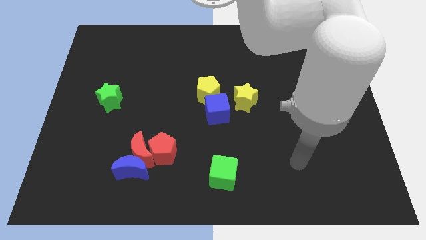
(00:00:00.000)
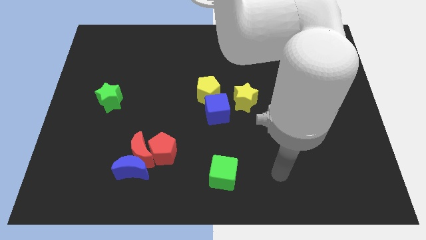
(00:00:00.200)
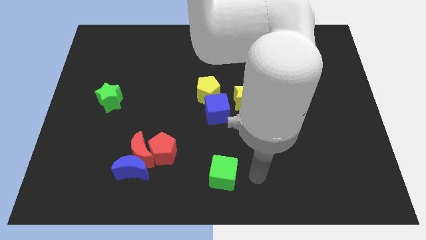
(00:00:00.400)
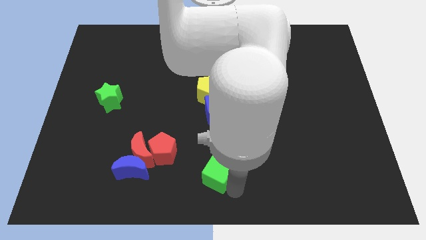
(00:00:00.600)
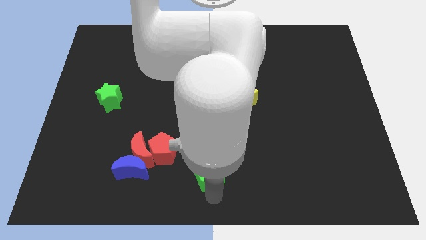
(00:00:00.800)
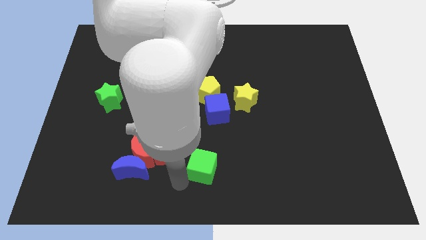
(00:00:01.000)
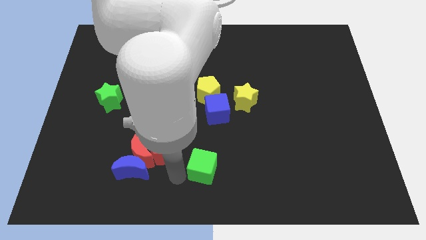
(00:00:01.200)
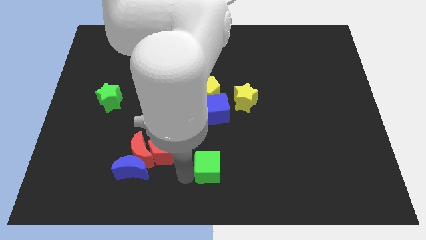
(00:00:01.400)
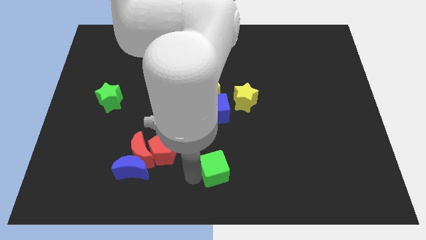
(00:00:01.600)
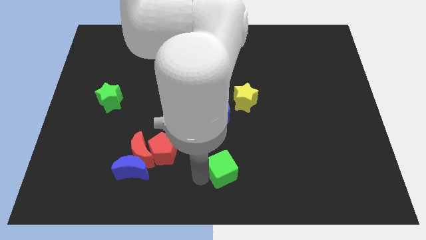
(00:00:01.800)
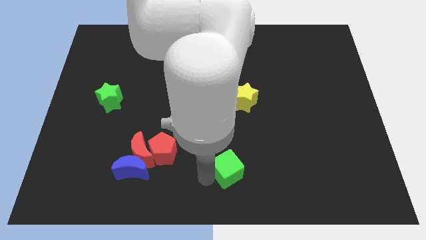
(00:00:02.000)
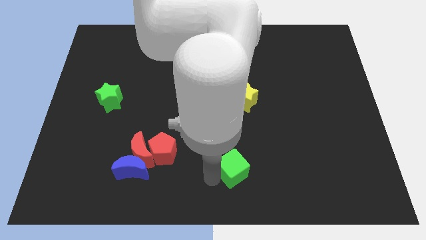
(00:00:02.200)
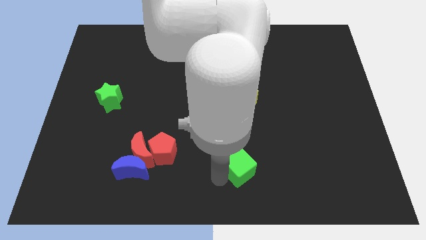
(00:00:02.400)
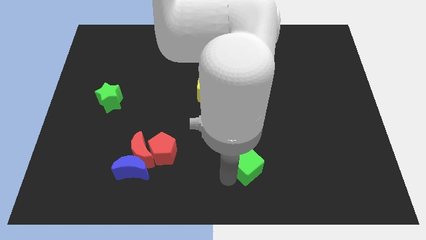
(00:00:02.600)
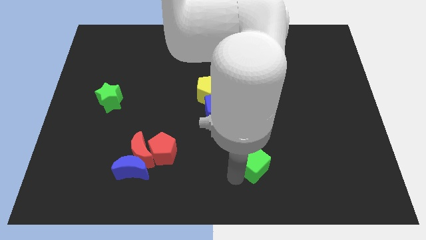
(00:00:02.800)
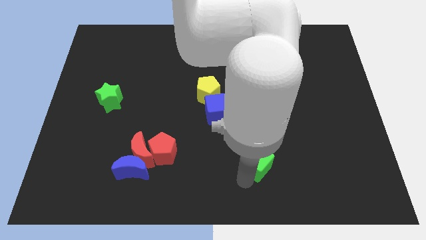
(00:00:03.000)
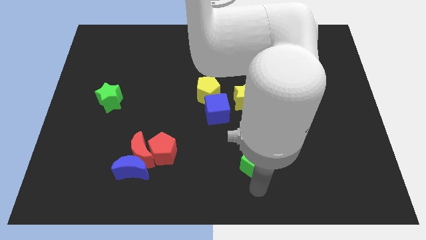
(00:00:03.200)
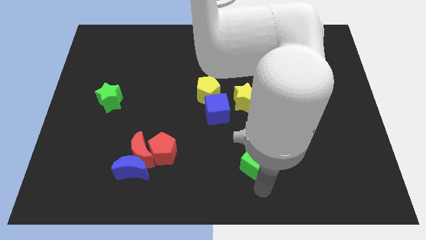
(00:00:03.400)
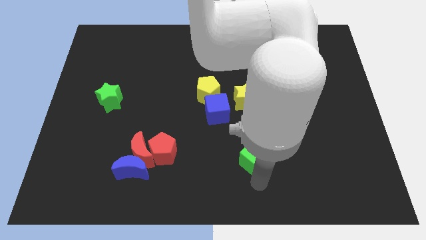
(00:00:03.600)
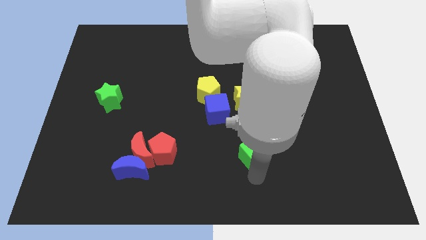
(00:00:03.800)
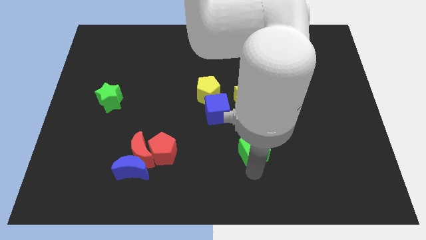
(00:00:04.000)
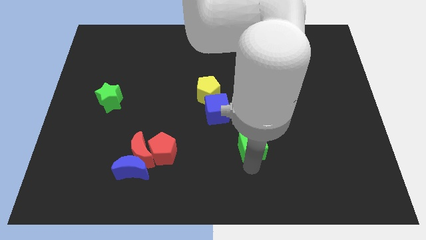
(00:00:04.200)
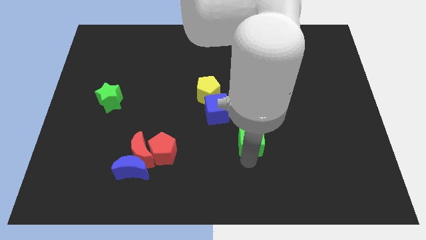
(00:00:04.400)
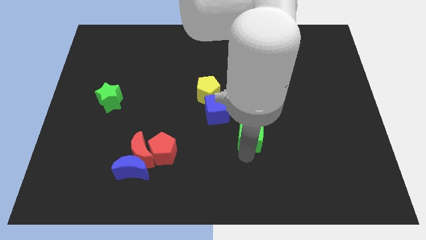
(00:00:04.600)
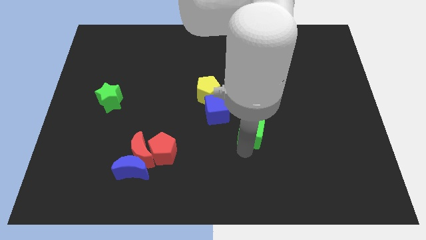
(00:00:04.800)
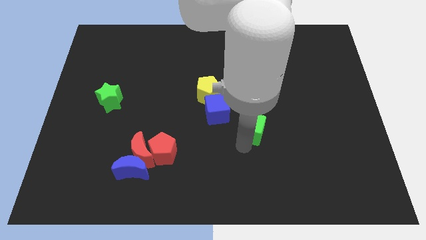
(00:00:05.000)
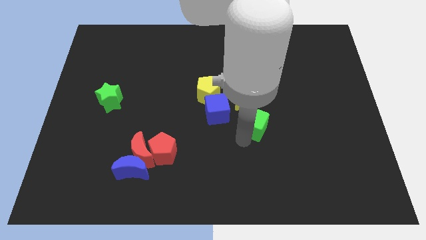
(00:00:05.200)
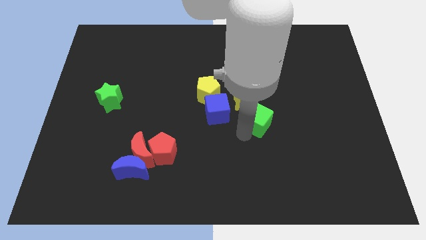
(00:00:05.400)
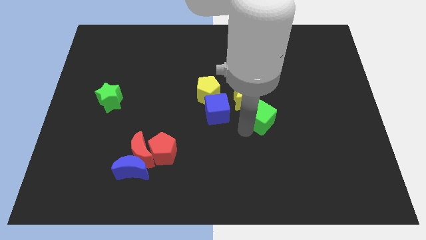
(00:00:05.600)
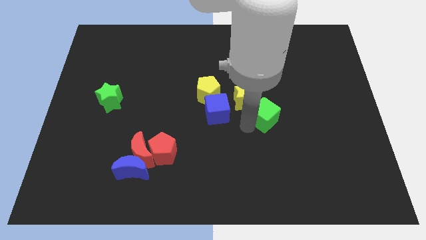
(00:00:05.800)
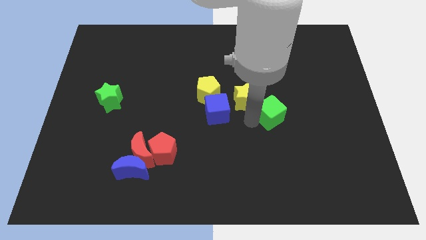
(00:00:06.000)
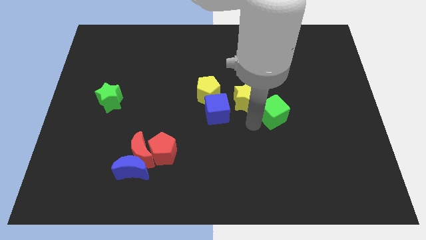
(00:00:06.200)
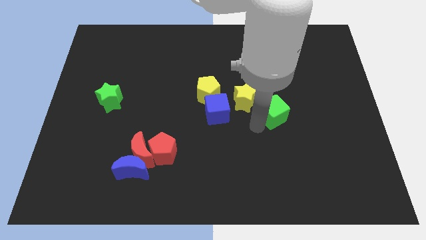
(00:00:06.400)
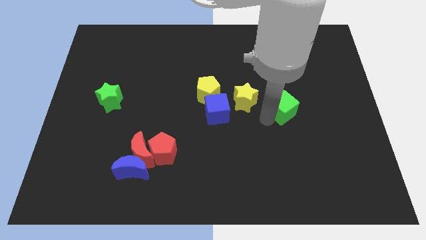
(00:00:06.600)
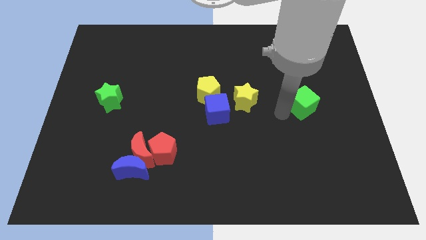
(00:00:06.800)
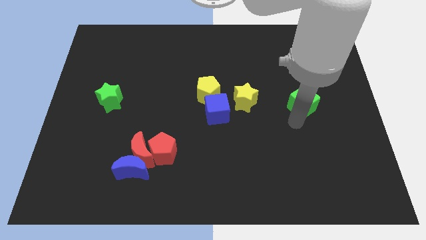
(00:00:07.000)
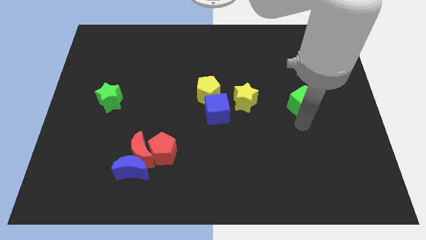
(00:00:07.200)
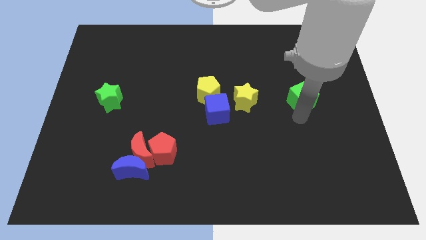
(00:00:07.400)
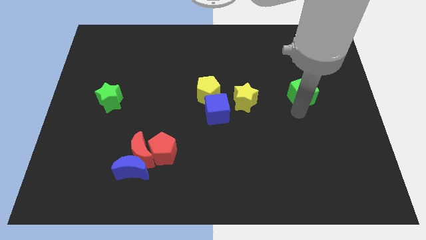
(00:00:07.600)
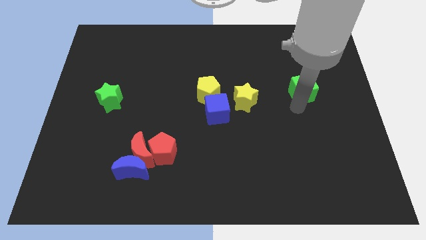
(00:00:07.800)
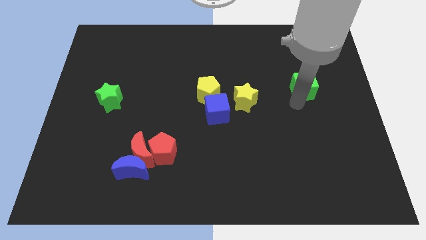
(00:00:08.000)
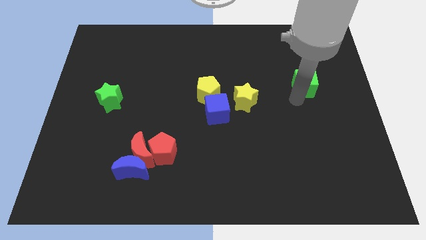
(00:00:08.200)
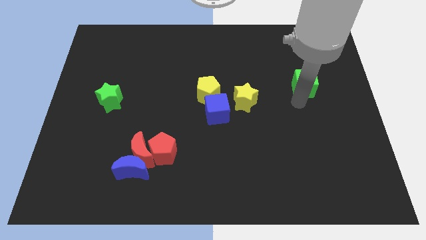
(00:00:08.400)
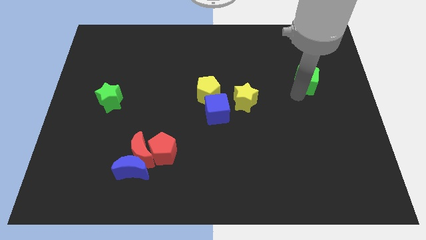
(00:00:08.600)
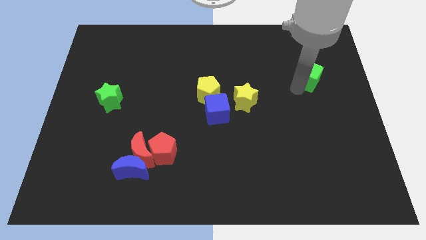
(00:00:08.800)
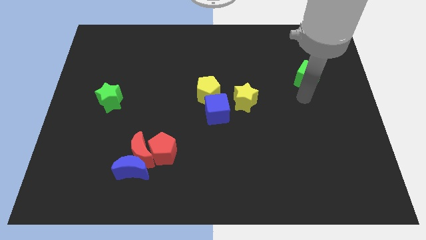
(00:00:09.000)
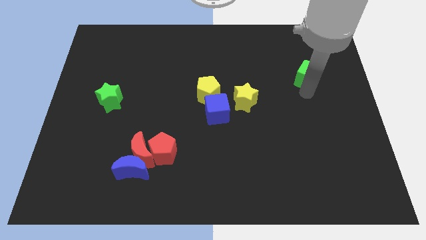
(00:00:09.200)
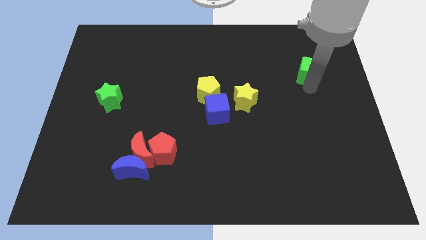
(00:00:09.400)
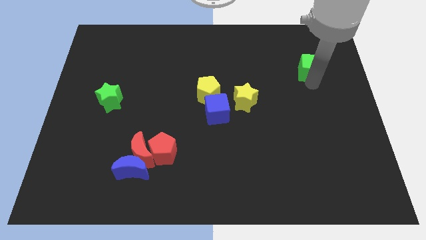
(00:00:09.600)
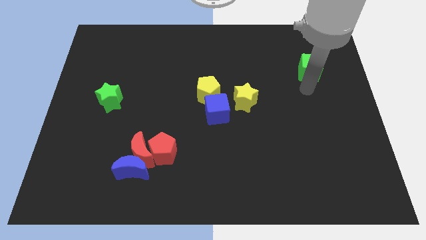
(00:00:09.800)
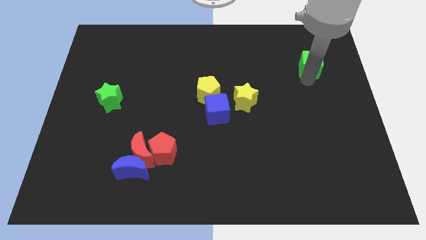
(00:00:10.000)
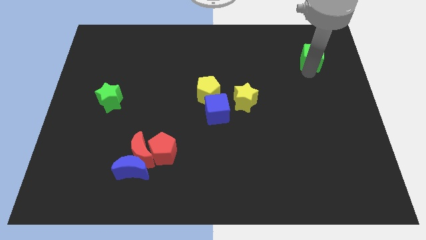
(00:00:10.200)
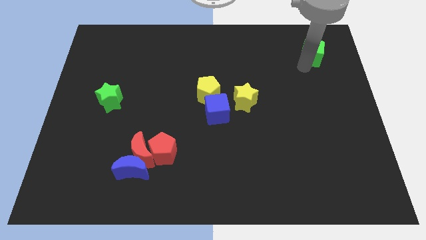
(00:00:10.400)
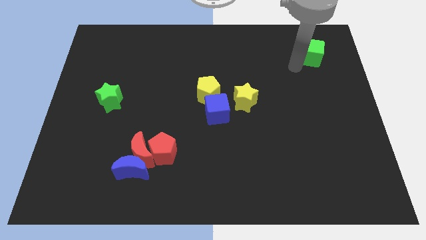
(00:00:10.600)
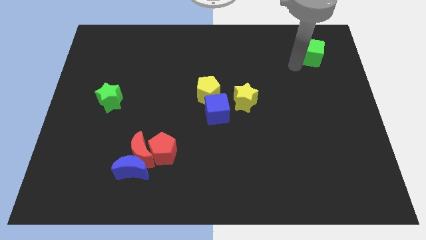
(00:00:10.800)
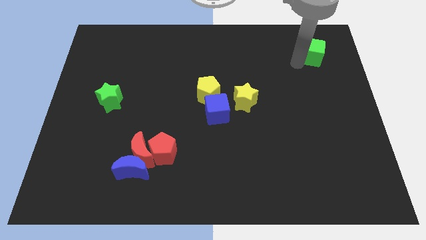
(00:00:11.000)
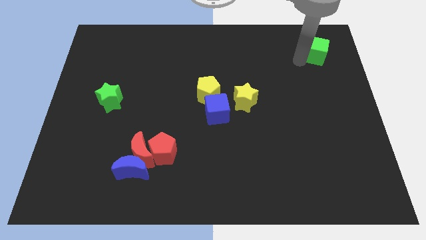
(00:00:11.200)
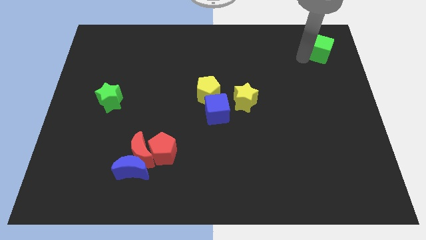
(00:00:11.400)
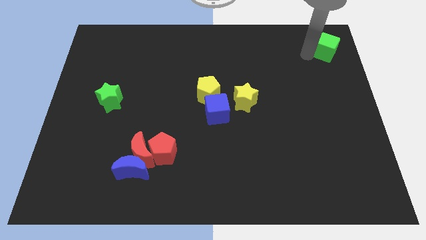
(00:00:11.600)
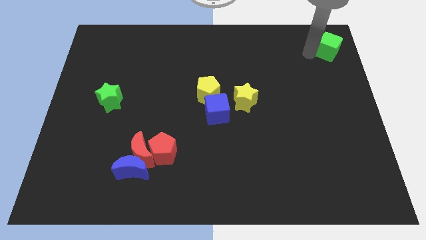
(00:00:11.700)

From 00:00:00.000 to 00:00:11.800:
slide the green cube to the top right
